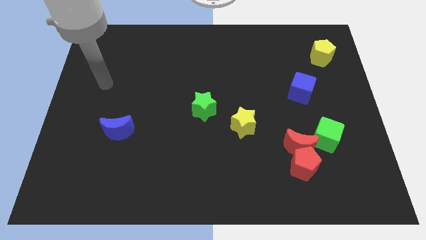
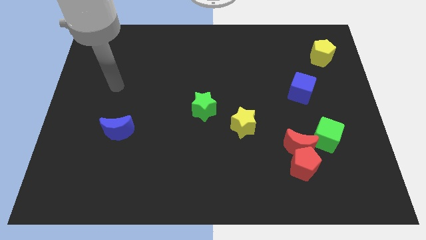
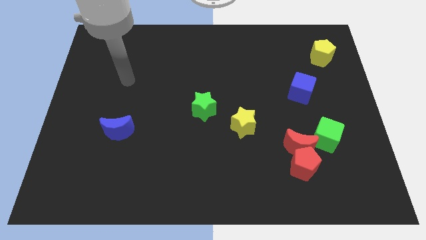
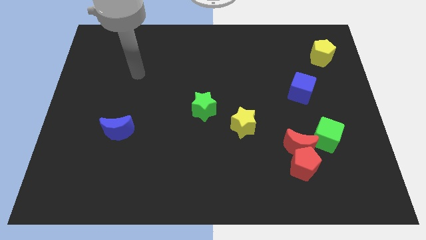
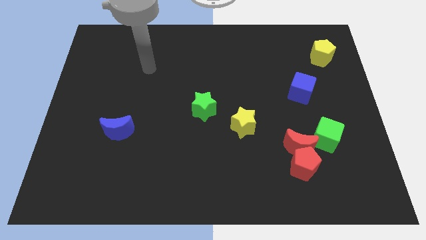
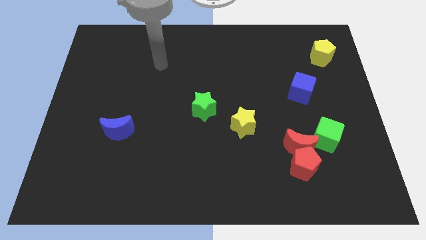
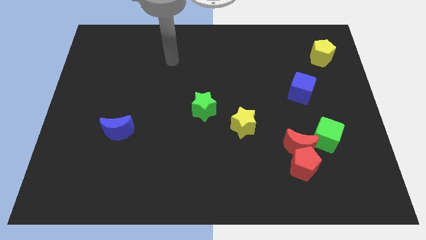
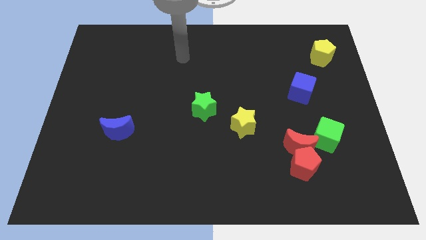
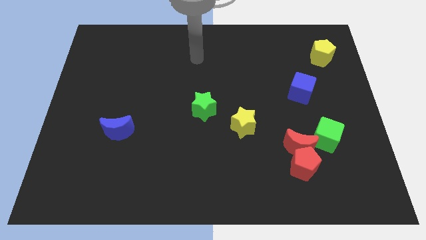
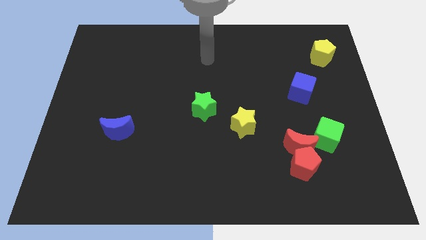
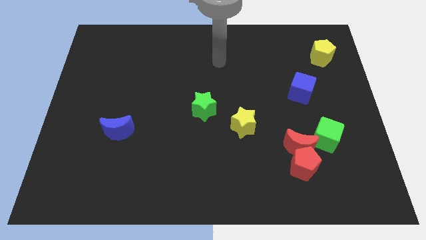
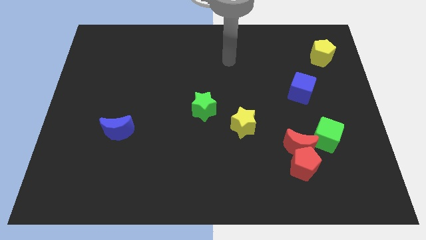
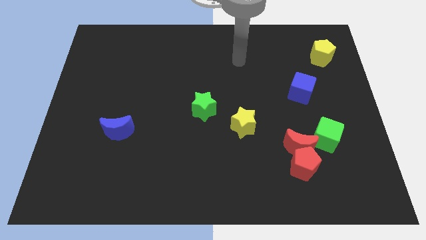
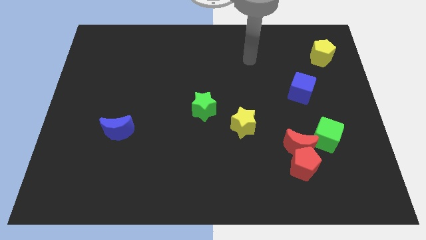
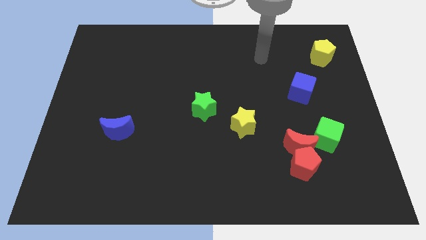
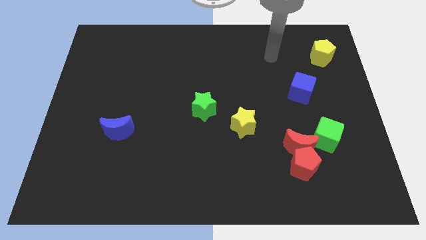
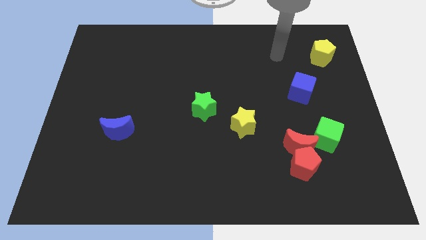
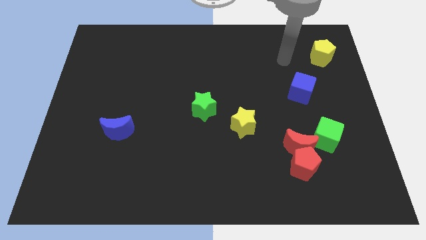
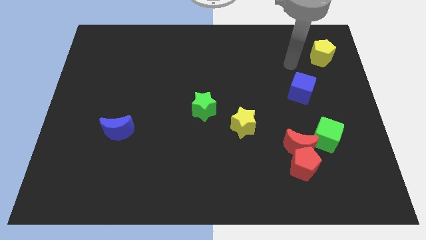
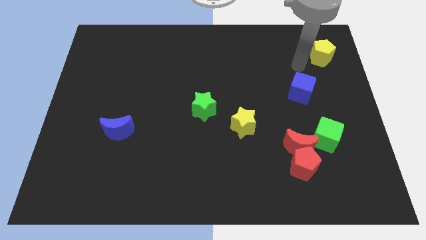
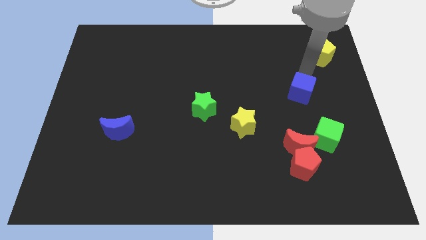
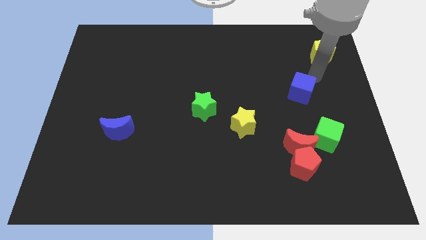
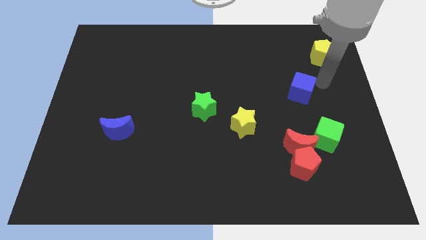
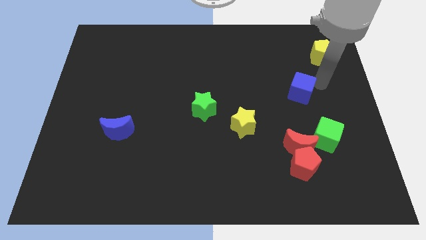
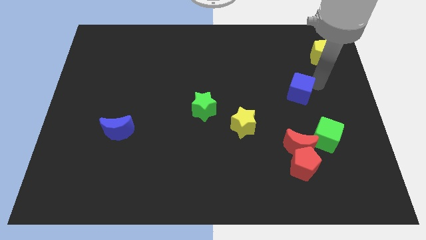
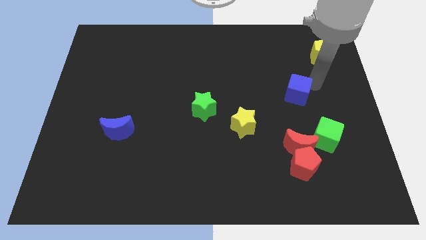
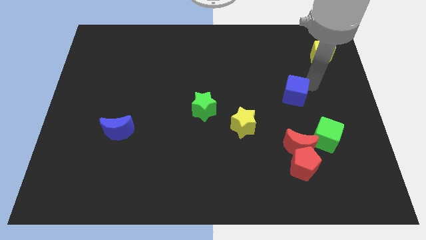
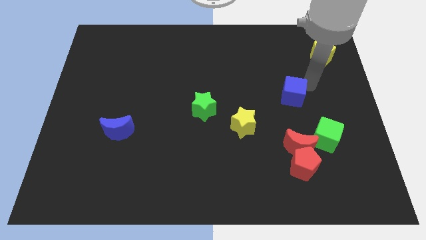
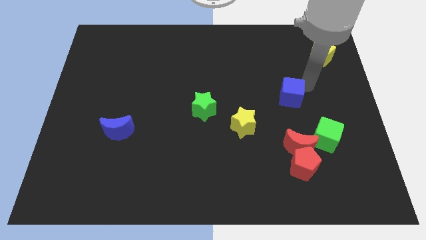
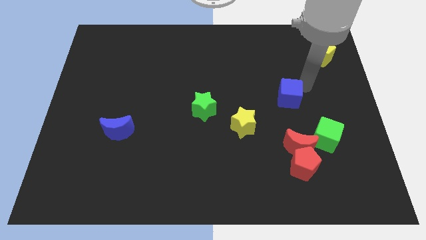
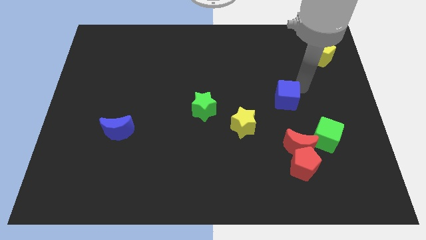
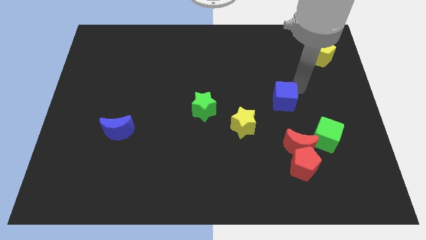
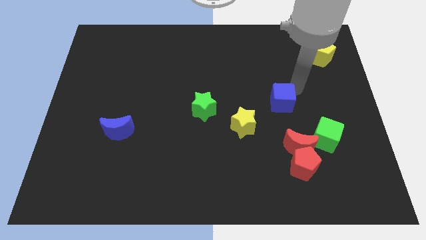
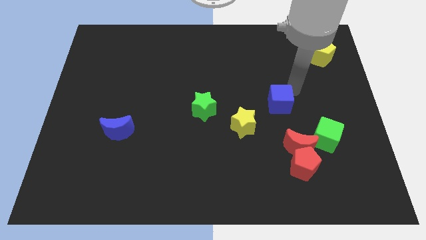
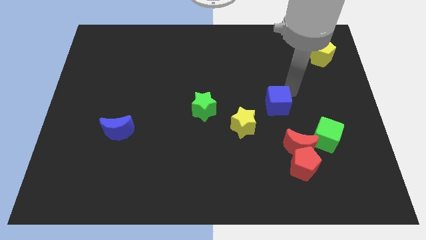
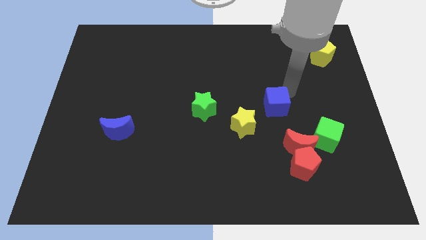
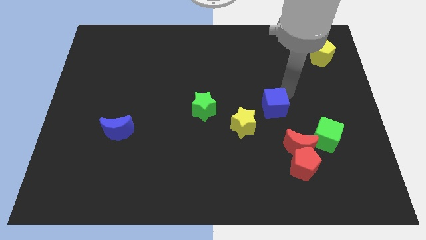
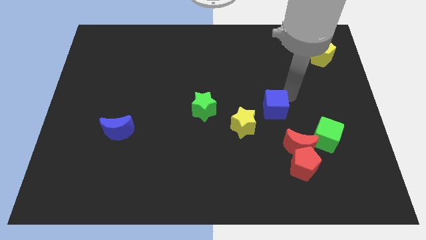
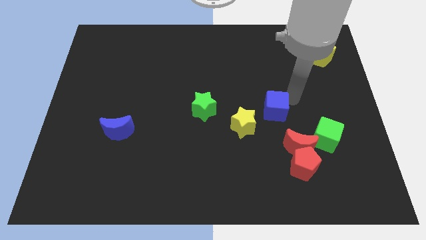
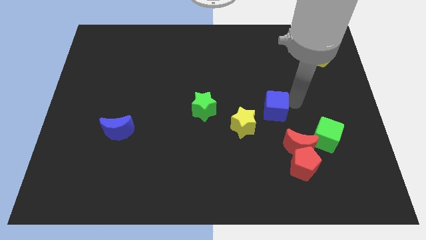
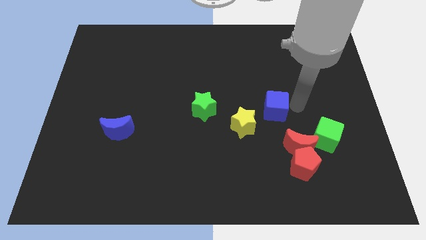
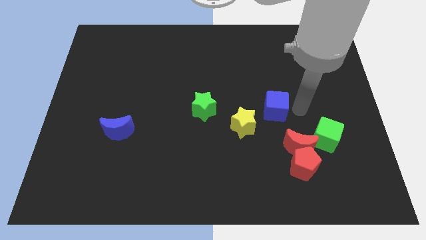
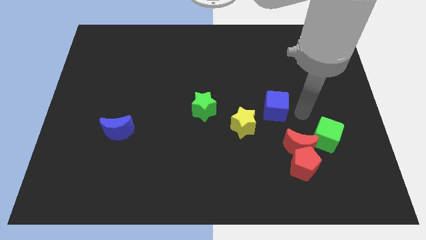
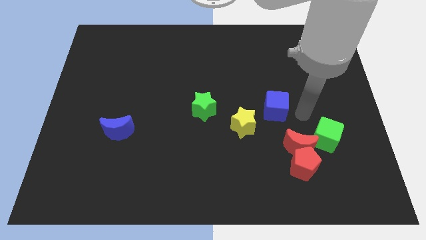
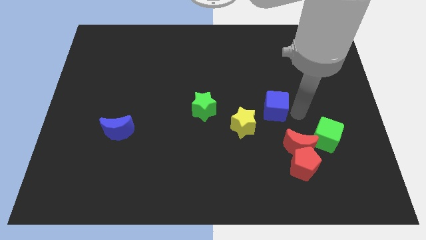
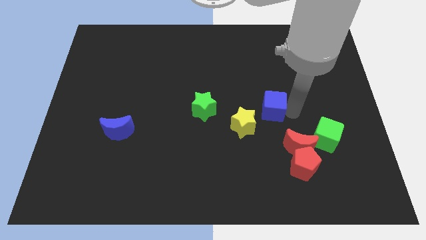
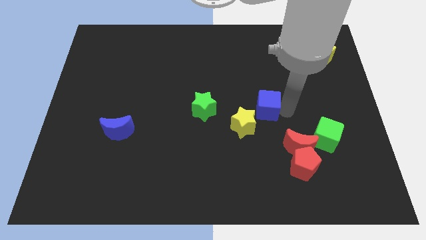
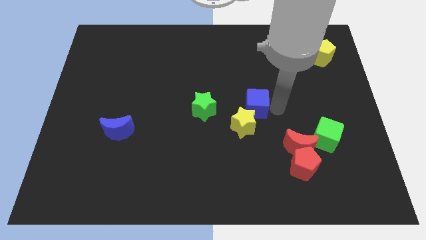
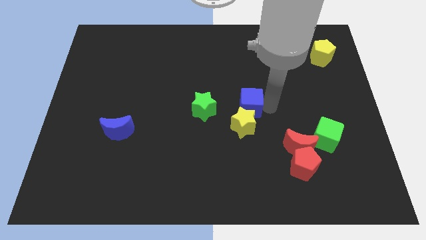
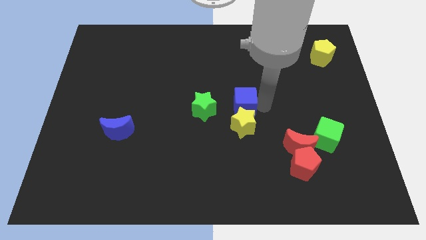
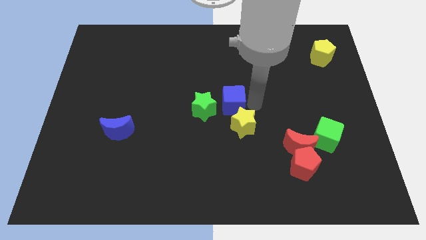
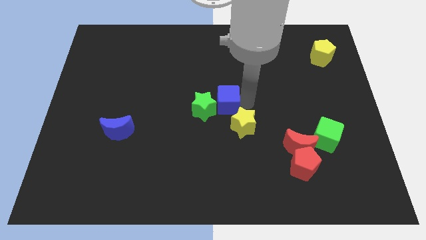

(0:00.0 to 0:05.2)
slide the blue cube towards the green star

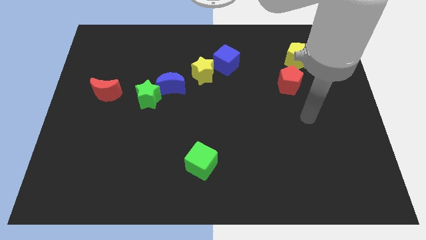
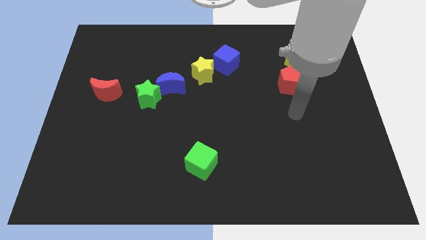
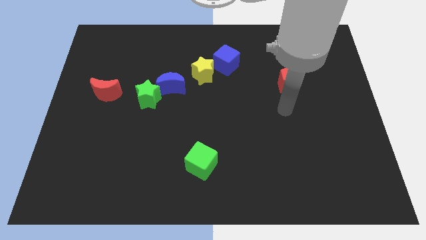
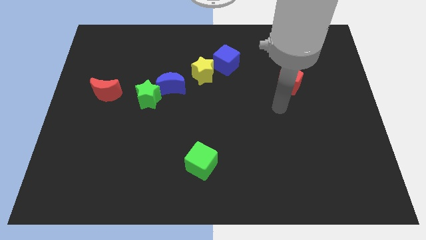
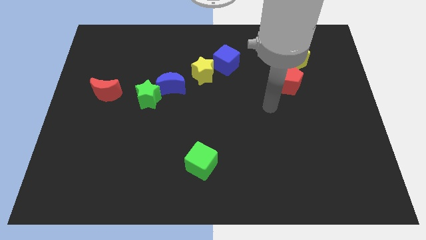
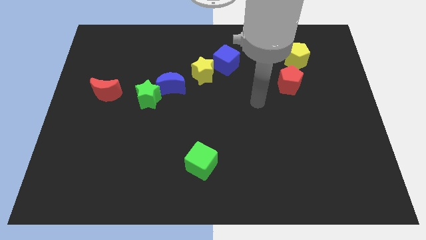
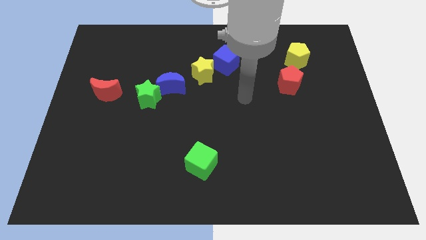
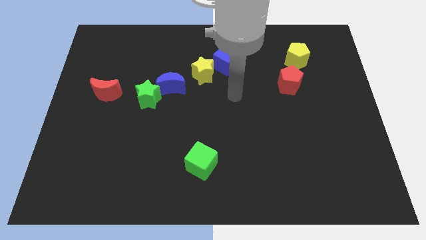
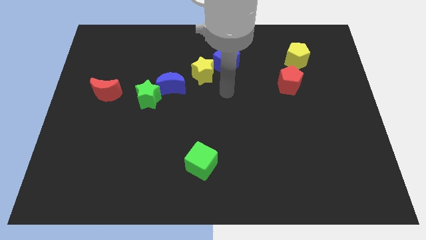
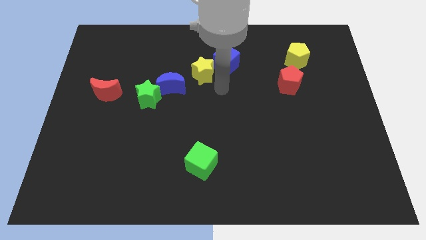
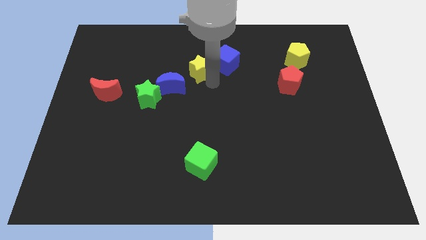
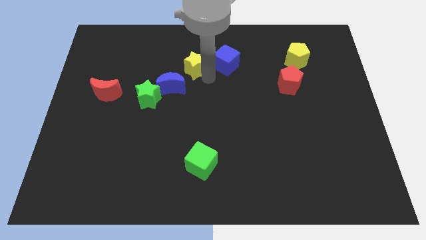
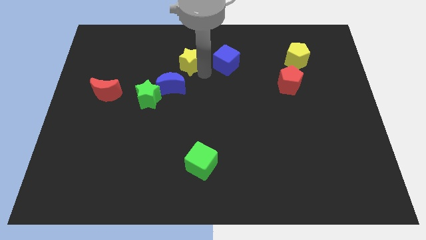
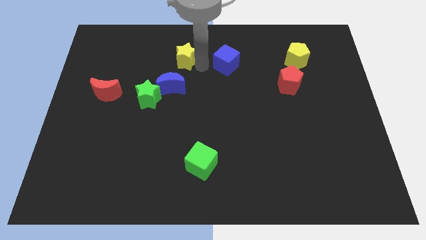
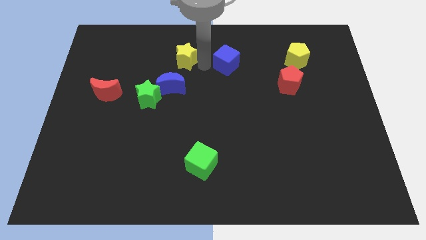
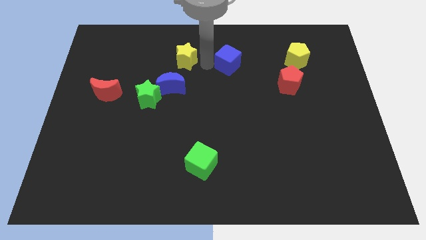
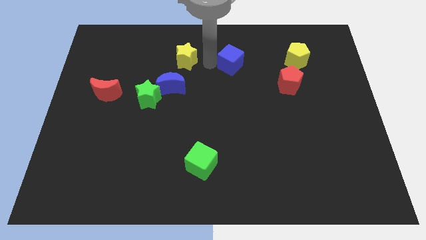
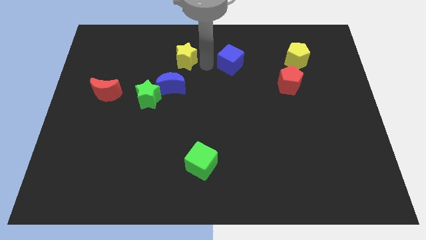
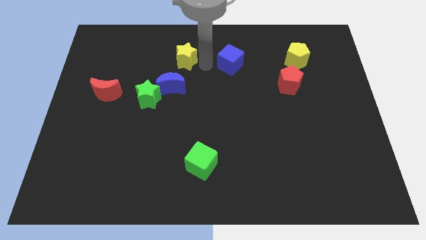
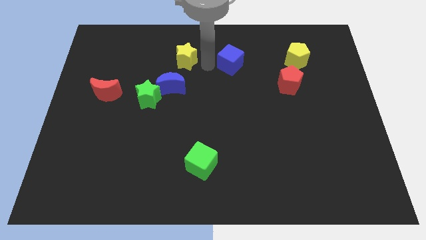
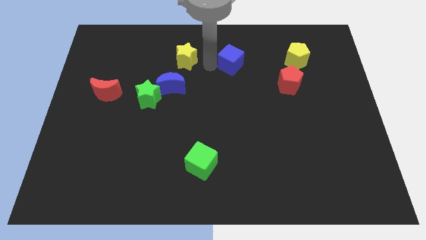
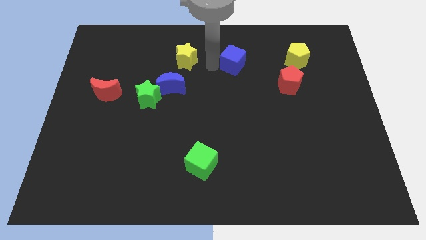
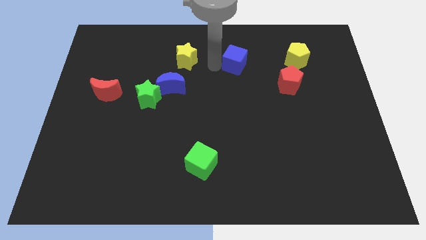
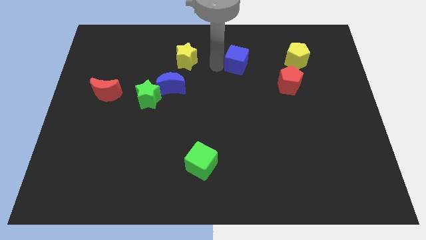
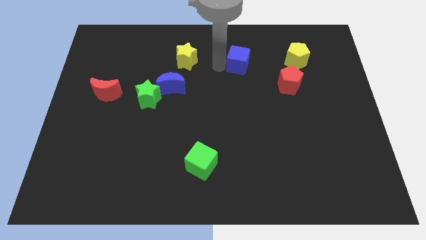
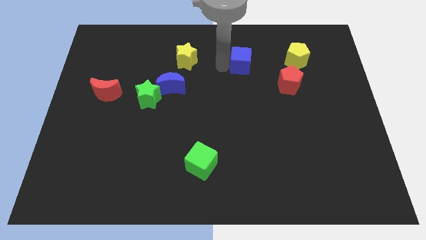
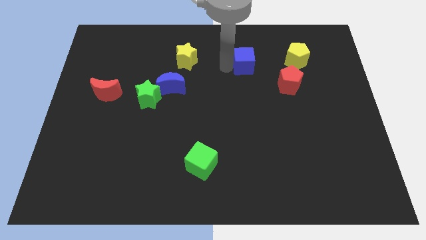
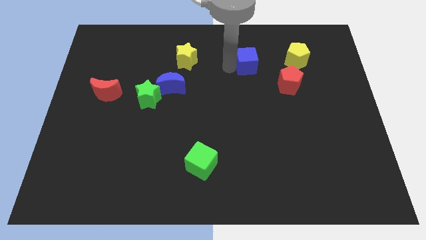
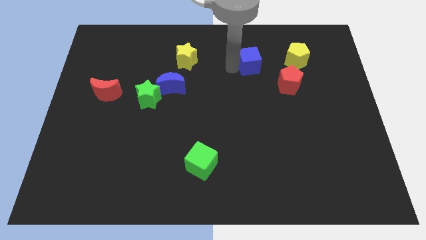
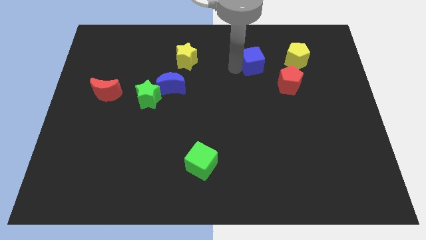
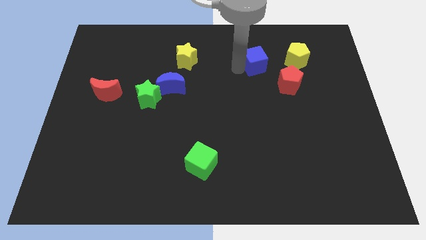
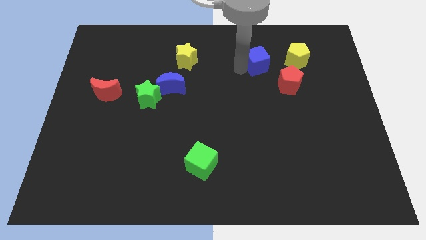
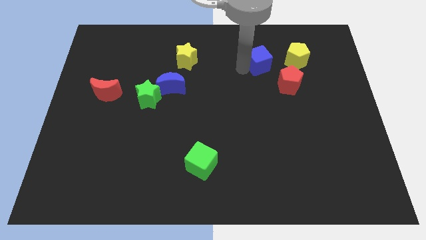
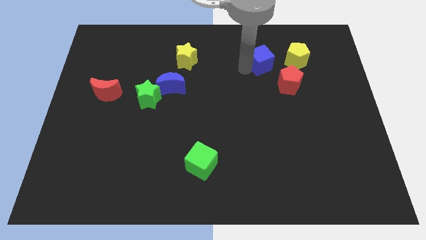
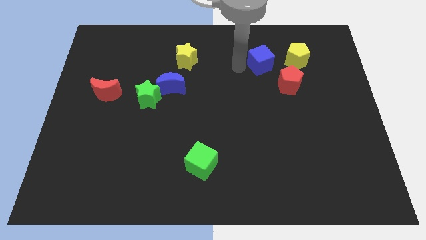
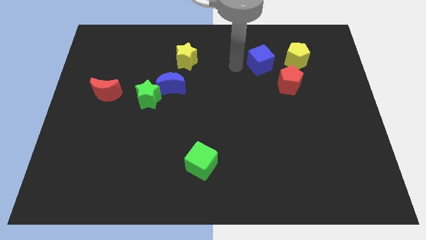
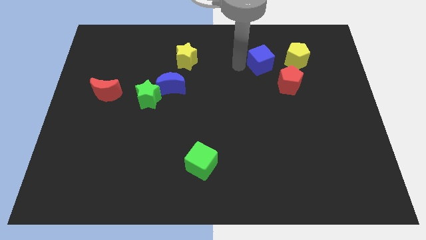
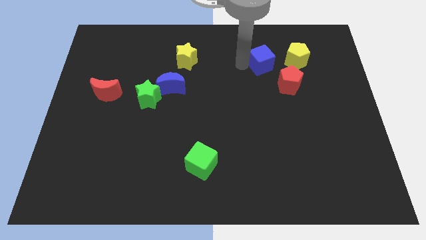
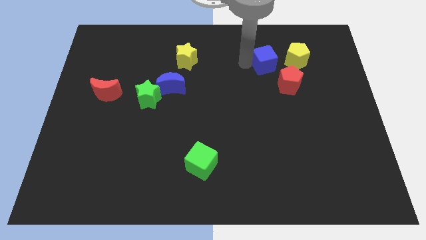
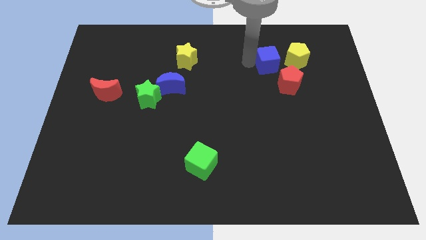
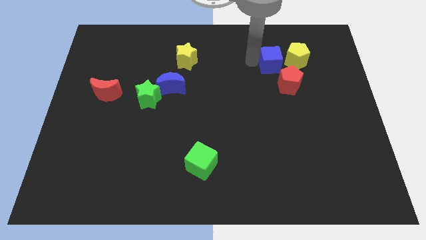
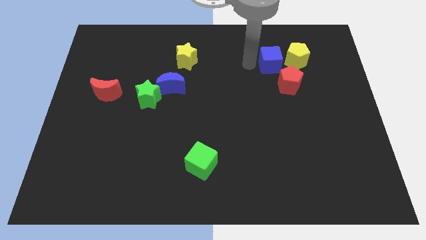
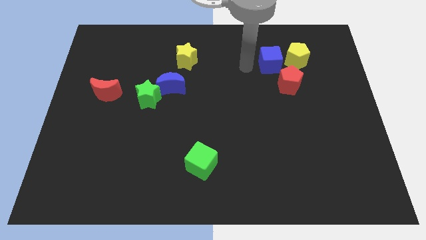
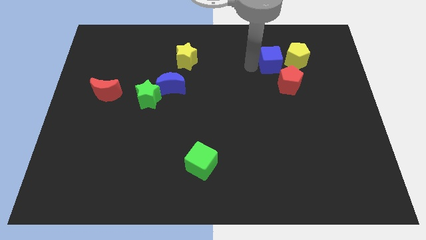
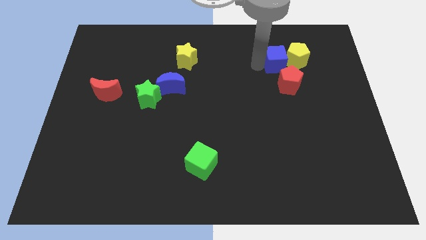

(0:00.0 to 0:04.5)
move the blue cube towards the yellow pentagon
